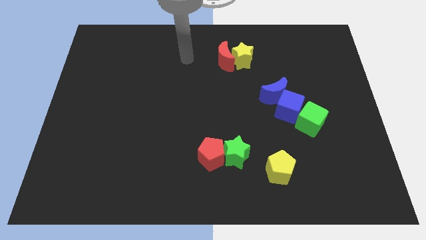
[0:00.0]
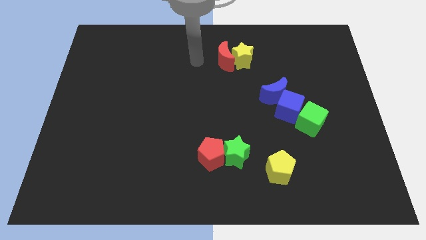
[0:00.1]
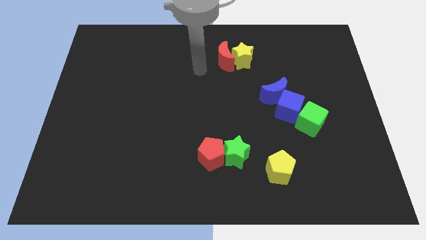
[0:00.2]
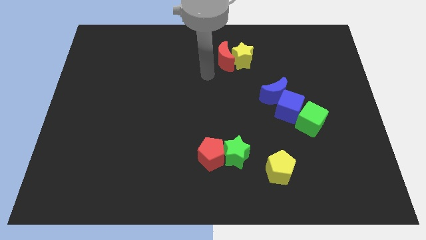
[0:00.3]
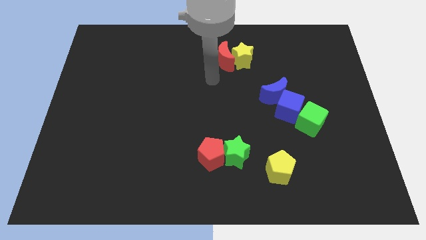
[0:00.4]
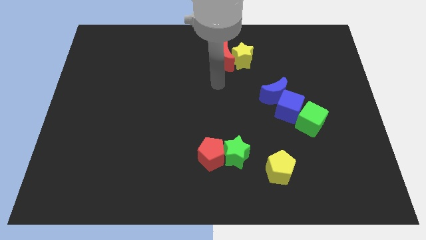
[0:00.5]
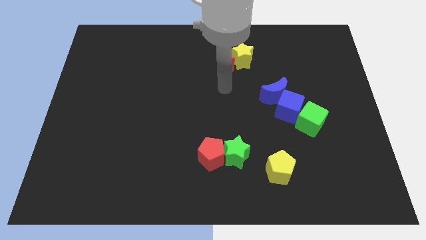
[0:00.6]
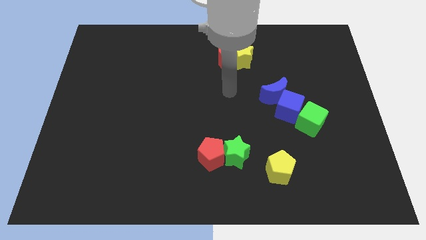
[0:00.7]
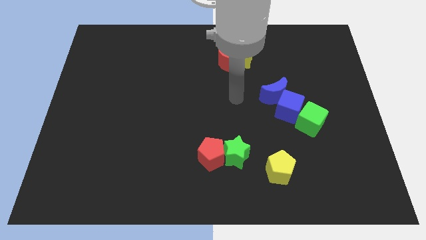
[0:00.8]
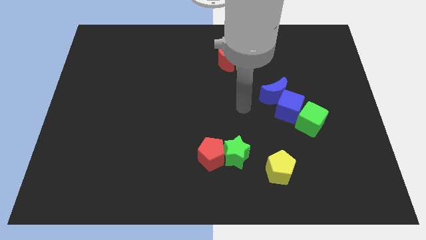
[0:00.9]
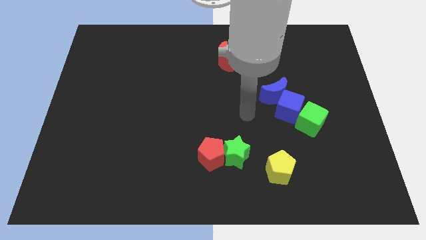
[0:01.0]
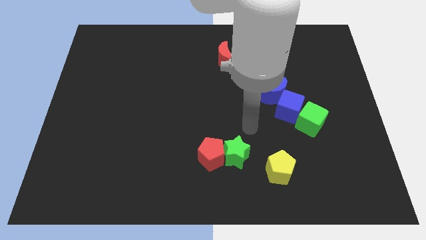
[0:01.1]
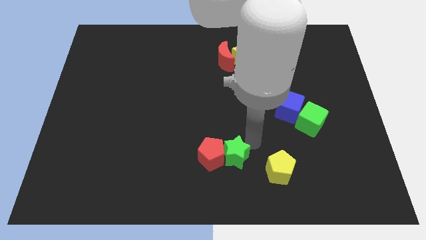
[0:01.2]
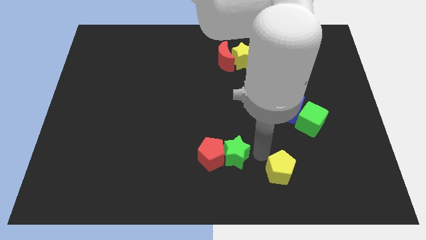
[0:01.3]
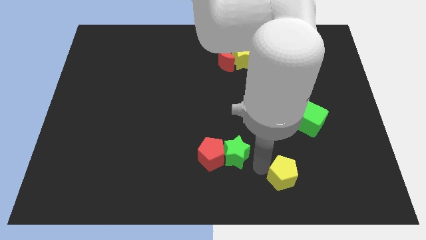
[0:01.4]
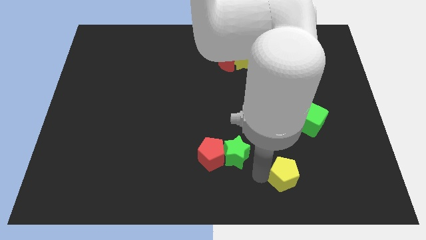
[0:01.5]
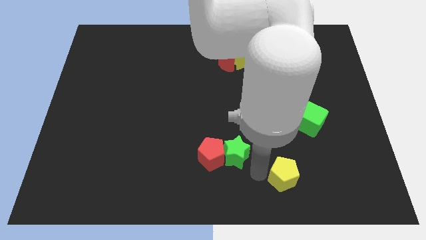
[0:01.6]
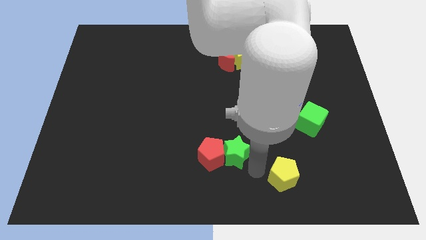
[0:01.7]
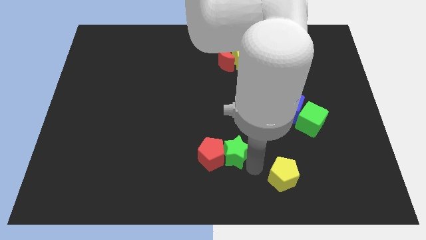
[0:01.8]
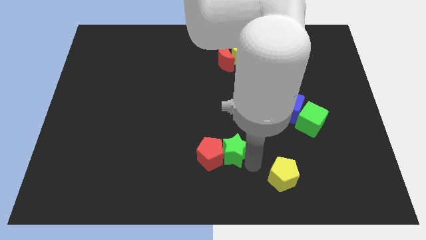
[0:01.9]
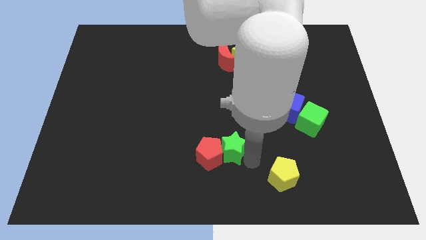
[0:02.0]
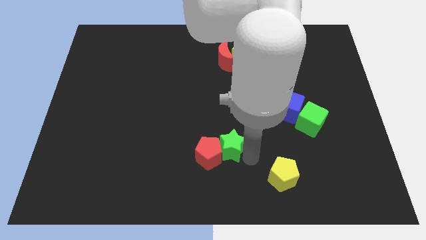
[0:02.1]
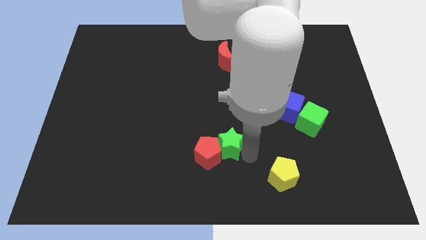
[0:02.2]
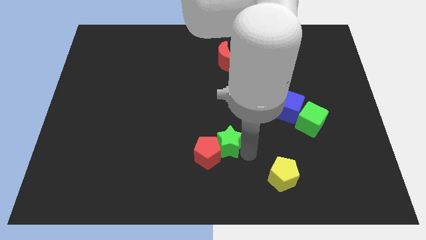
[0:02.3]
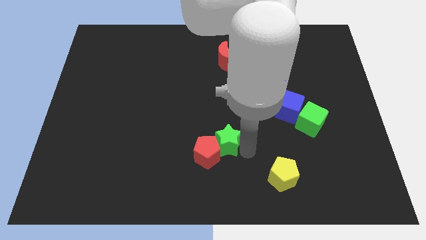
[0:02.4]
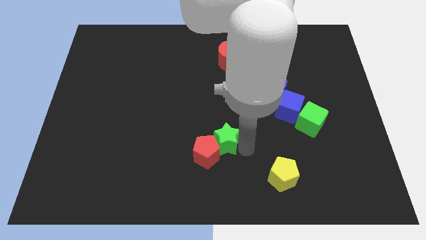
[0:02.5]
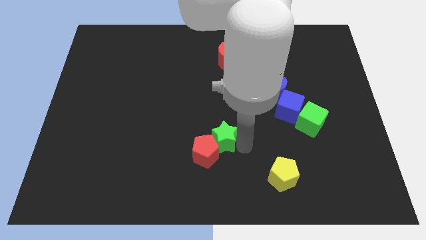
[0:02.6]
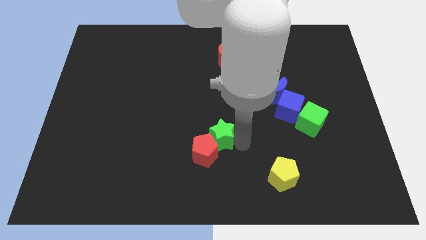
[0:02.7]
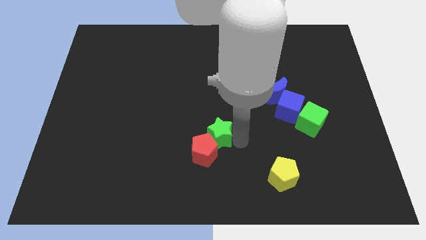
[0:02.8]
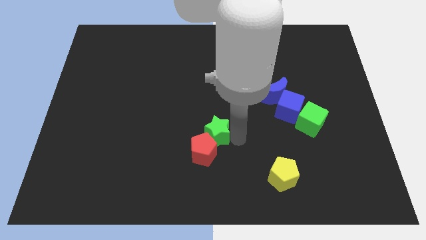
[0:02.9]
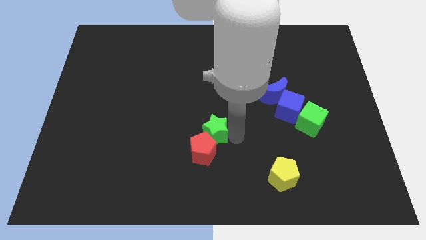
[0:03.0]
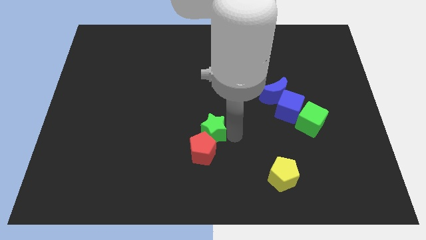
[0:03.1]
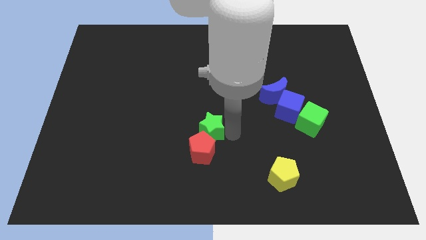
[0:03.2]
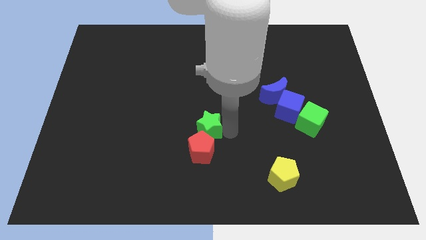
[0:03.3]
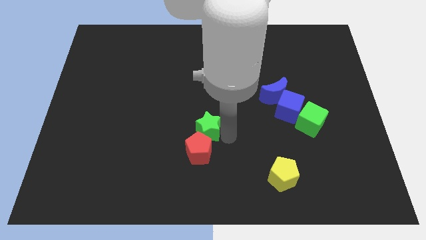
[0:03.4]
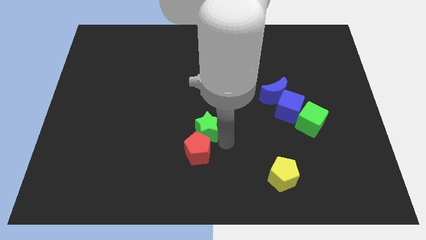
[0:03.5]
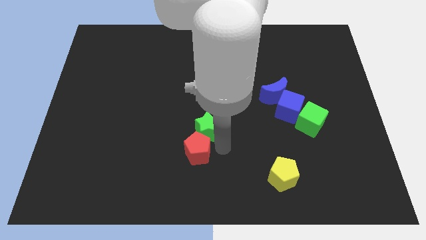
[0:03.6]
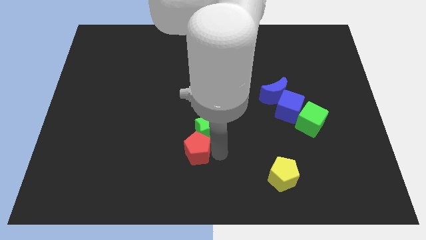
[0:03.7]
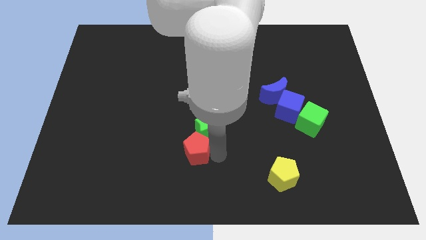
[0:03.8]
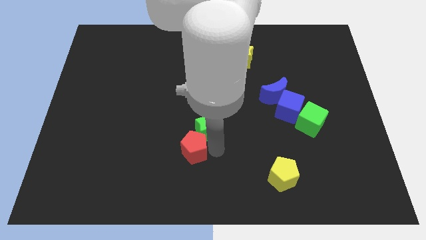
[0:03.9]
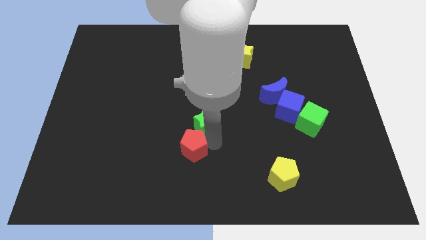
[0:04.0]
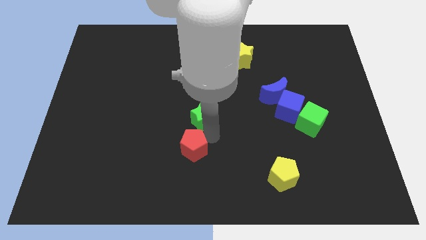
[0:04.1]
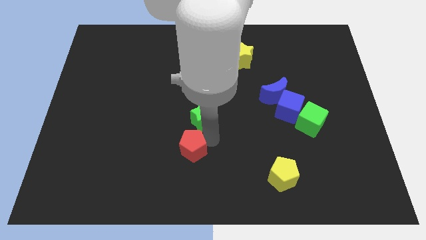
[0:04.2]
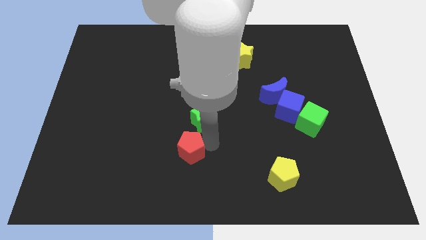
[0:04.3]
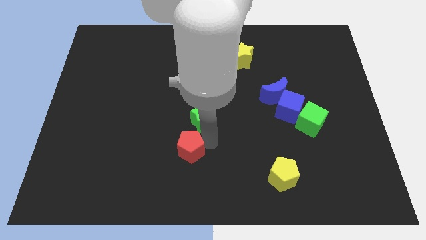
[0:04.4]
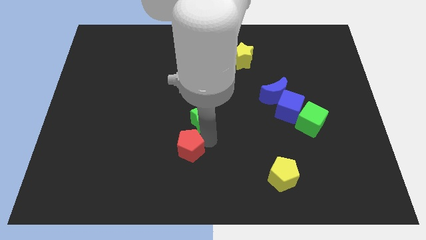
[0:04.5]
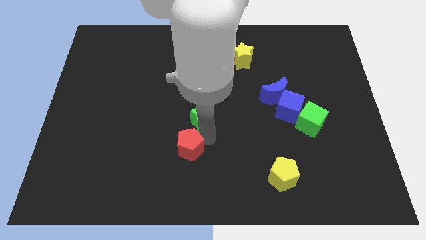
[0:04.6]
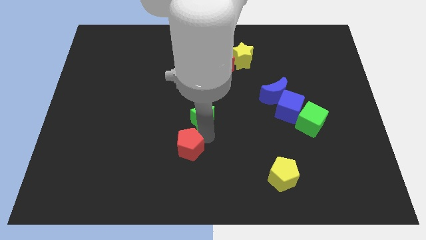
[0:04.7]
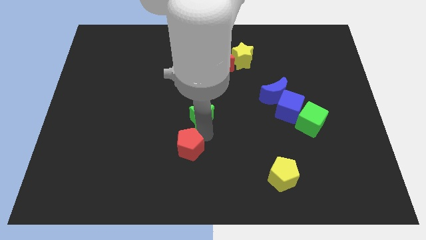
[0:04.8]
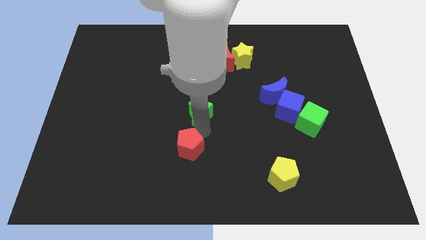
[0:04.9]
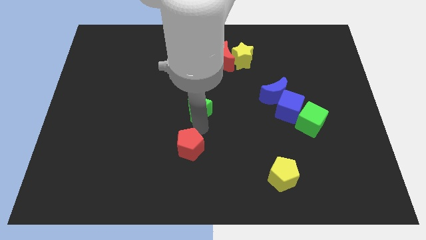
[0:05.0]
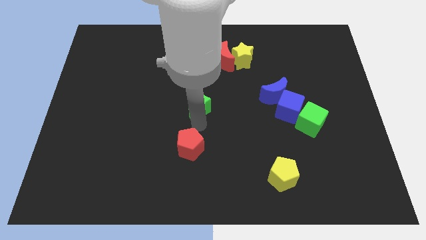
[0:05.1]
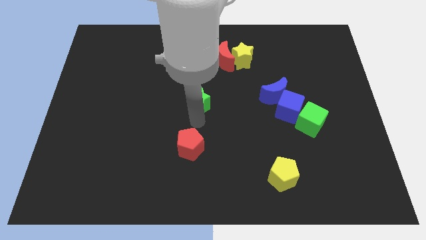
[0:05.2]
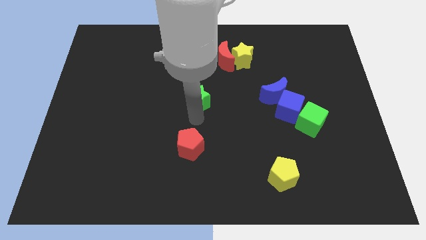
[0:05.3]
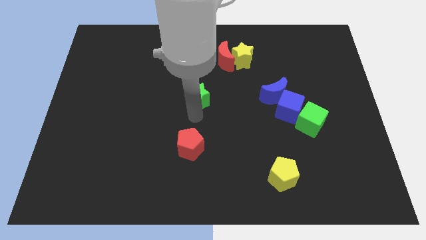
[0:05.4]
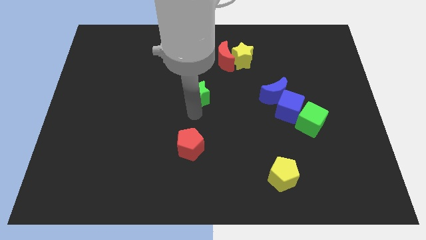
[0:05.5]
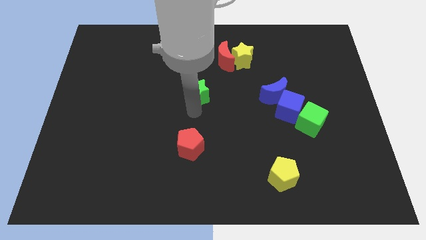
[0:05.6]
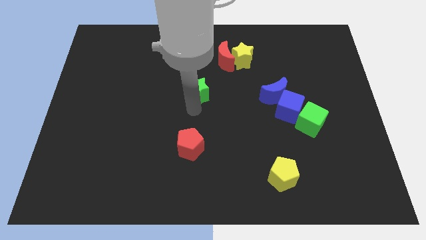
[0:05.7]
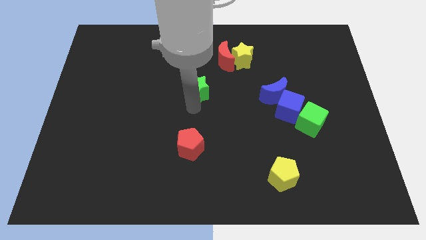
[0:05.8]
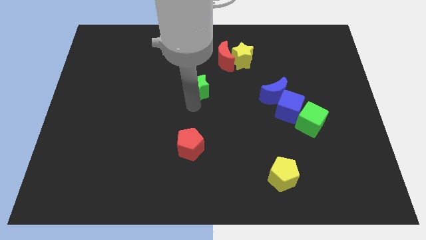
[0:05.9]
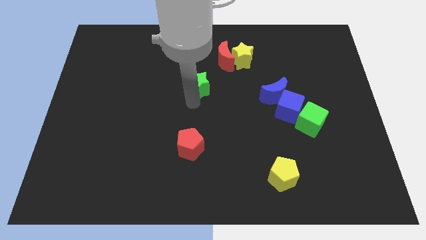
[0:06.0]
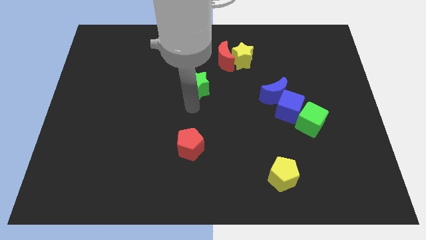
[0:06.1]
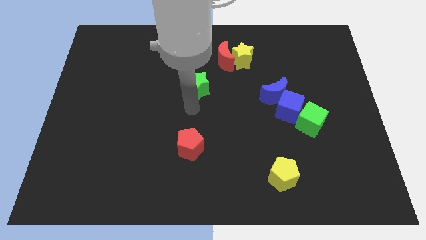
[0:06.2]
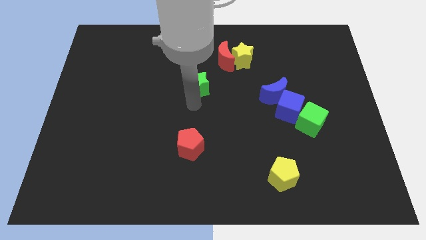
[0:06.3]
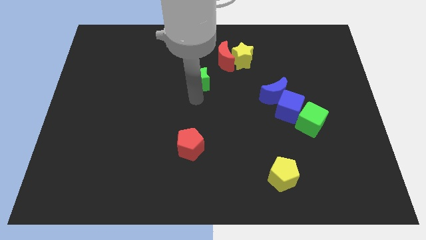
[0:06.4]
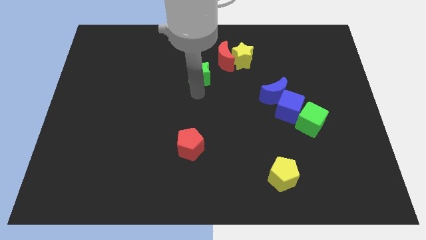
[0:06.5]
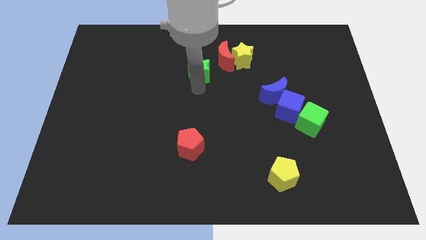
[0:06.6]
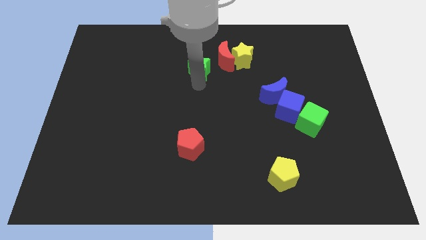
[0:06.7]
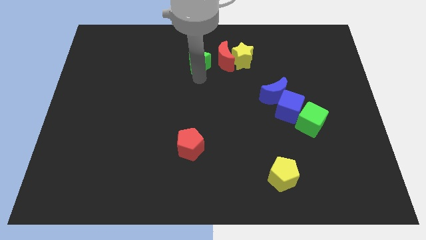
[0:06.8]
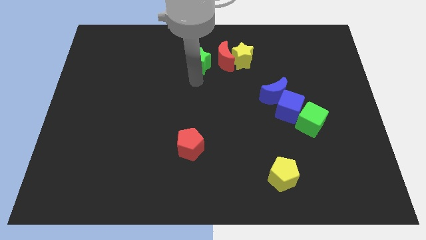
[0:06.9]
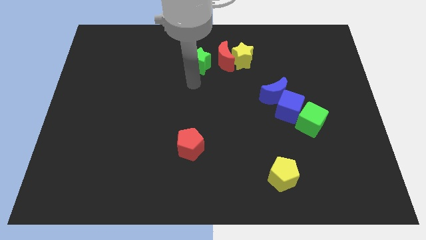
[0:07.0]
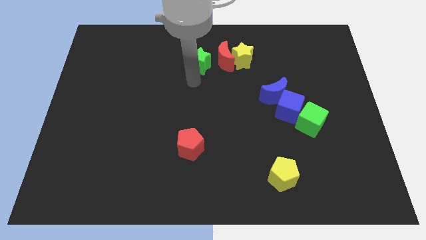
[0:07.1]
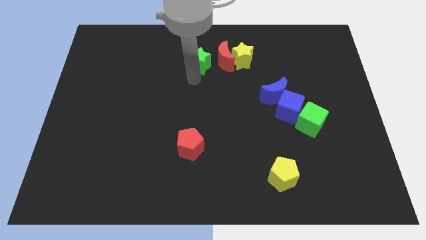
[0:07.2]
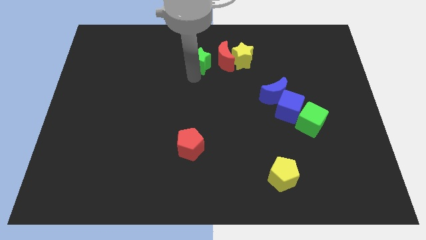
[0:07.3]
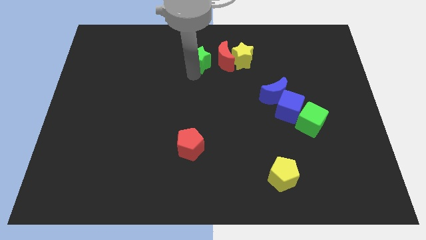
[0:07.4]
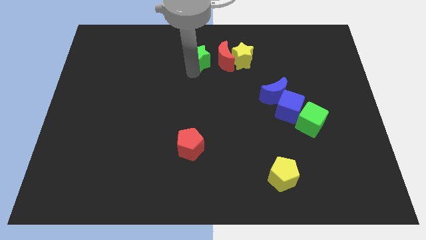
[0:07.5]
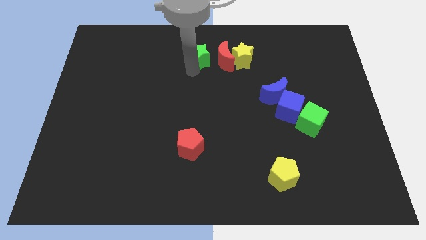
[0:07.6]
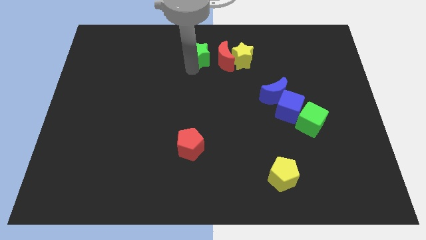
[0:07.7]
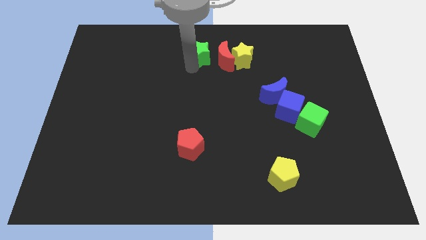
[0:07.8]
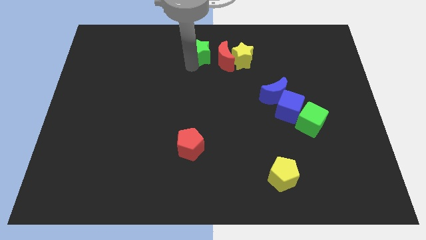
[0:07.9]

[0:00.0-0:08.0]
slide the green star to the towards your base
